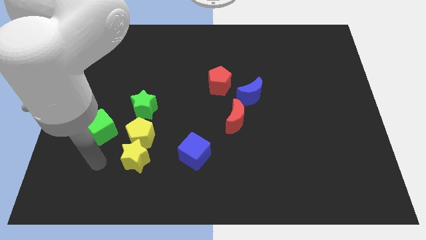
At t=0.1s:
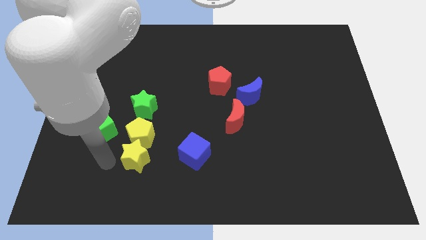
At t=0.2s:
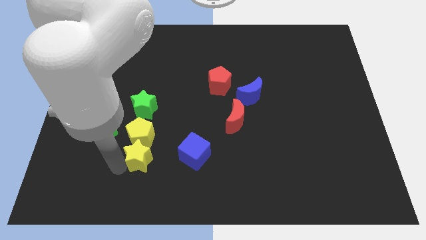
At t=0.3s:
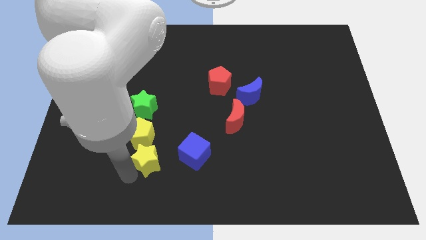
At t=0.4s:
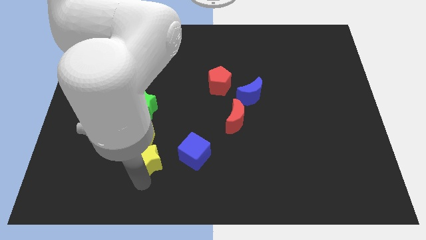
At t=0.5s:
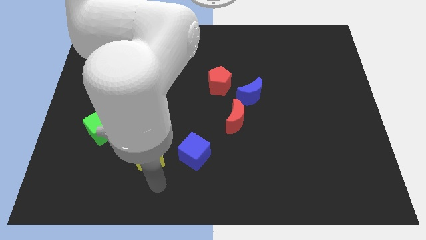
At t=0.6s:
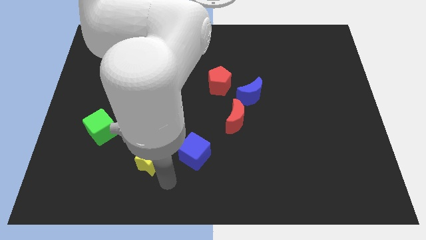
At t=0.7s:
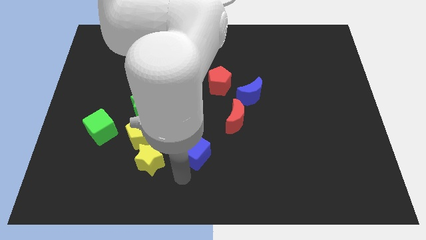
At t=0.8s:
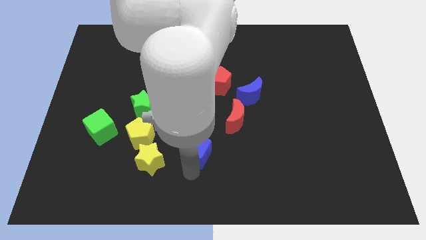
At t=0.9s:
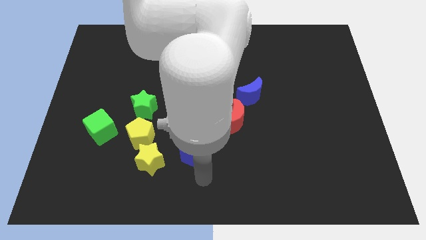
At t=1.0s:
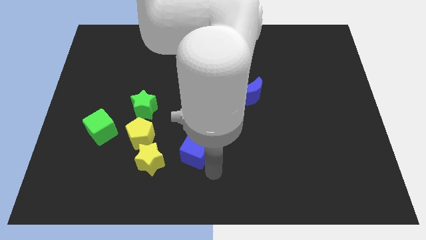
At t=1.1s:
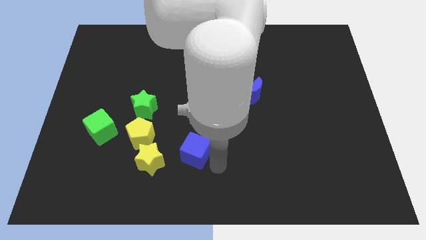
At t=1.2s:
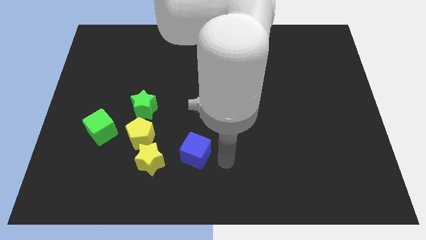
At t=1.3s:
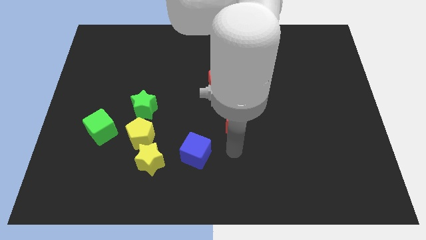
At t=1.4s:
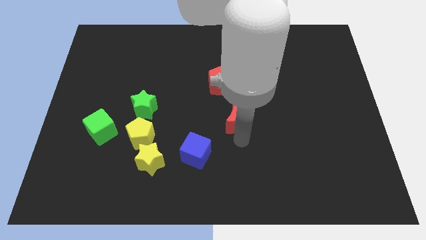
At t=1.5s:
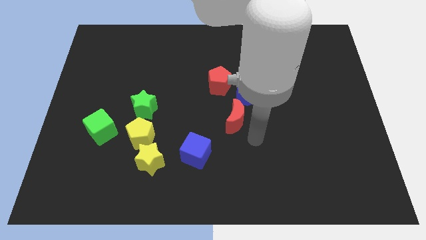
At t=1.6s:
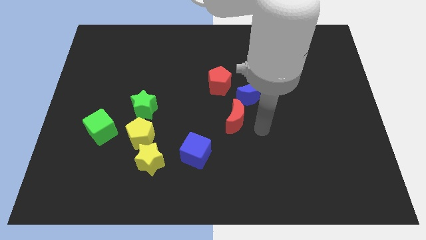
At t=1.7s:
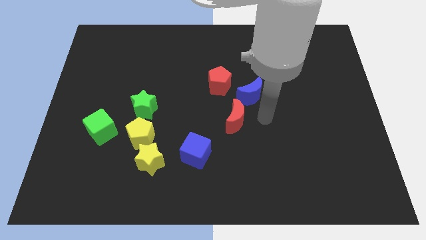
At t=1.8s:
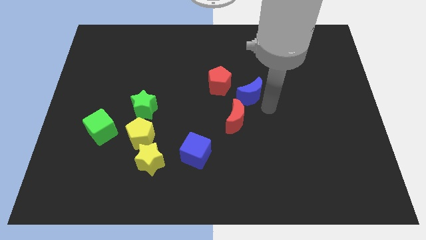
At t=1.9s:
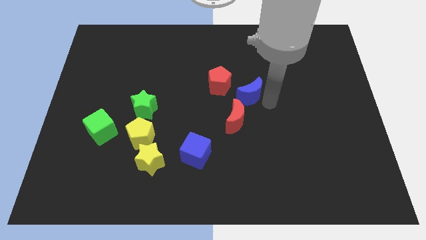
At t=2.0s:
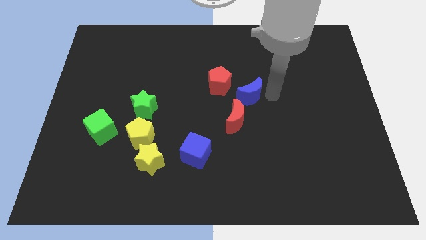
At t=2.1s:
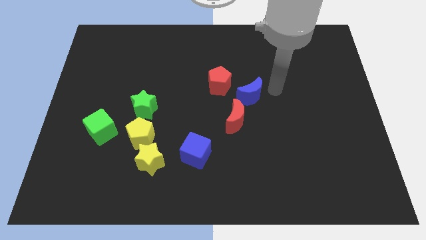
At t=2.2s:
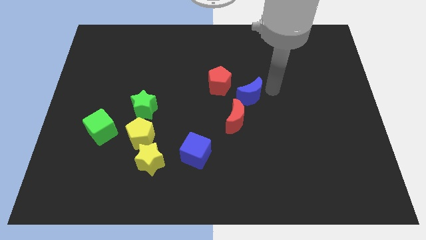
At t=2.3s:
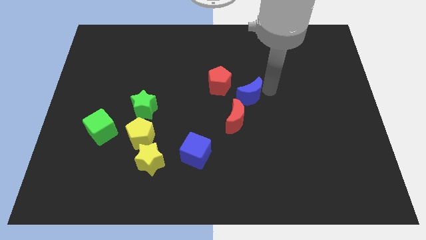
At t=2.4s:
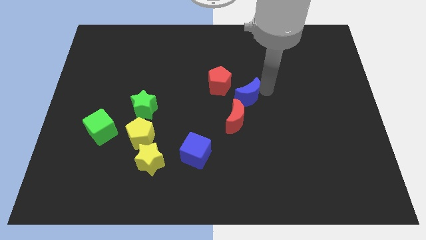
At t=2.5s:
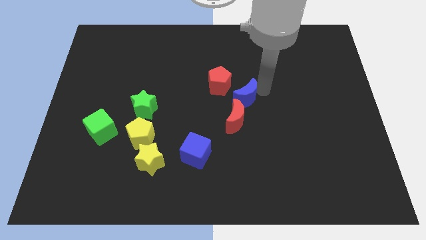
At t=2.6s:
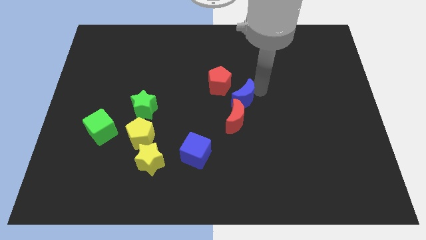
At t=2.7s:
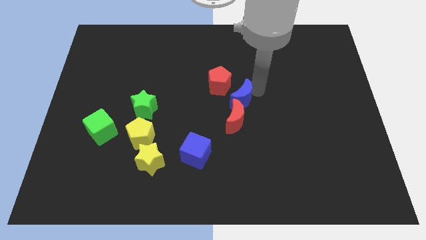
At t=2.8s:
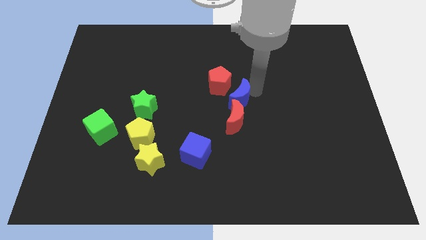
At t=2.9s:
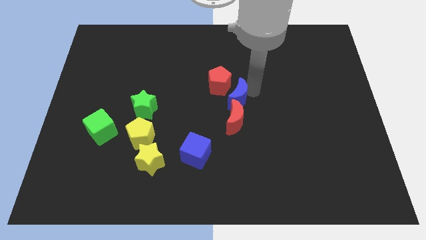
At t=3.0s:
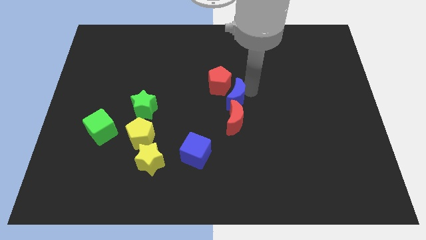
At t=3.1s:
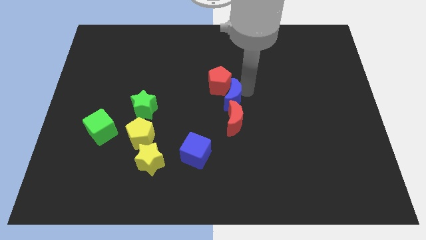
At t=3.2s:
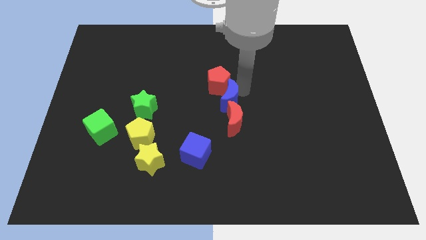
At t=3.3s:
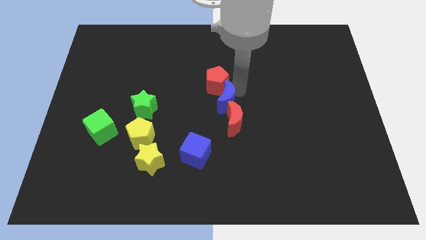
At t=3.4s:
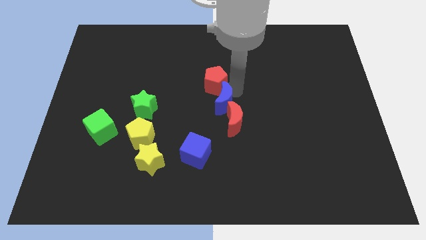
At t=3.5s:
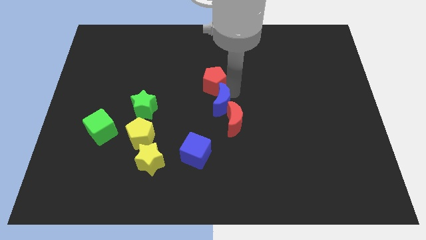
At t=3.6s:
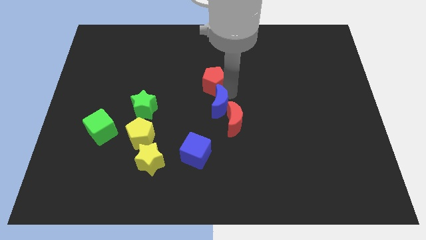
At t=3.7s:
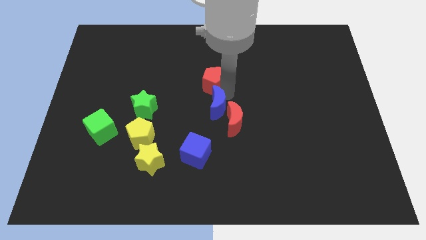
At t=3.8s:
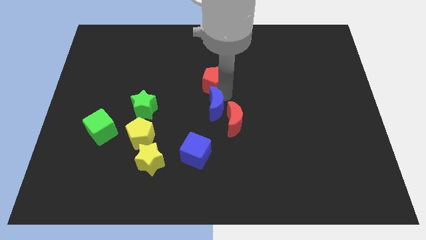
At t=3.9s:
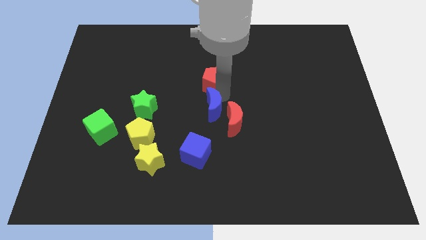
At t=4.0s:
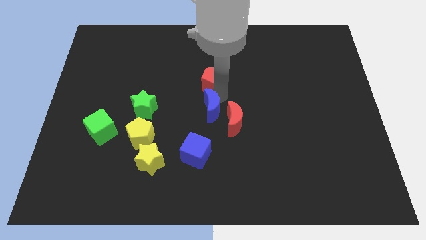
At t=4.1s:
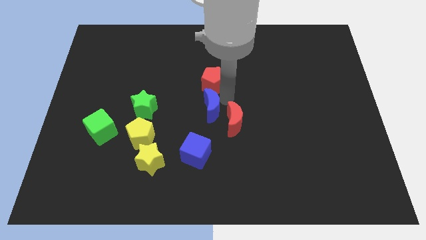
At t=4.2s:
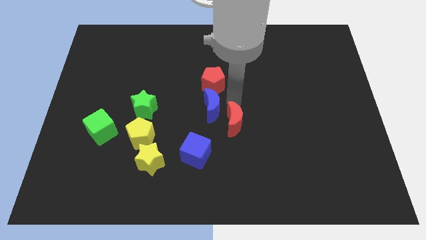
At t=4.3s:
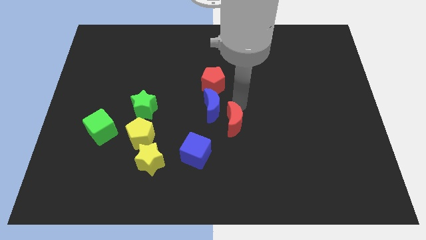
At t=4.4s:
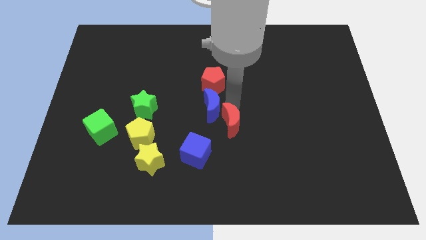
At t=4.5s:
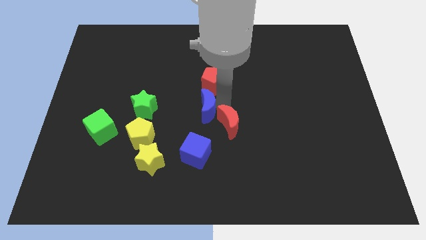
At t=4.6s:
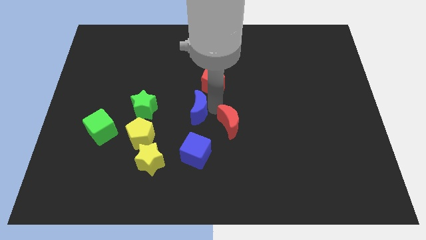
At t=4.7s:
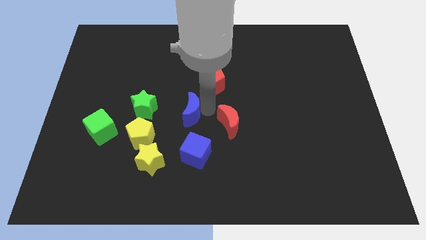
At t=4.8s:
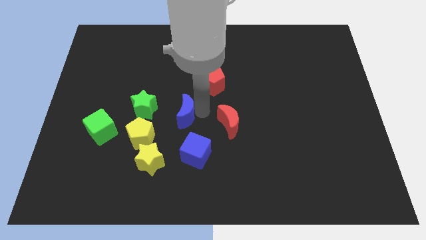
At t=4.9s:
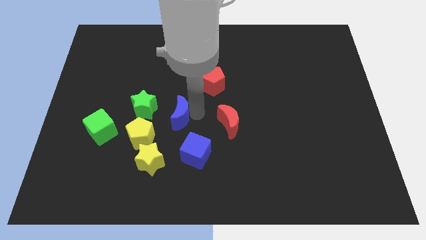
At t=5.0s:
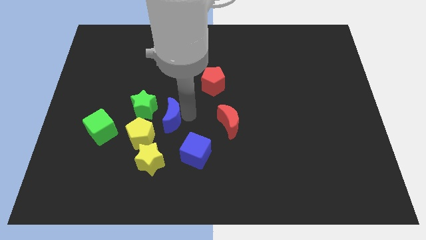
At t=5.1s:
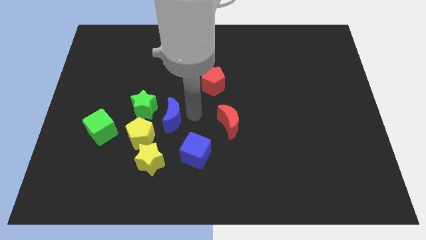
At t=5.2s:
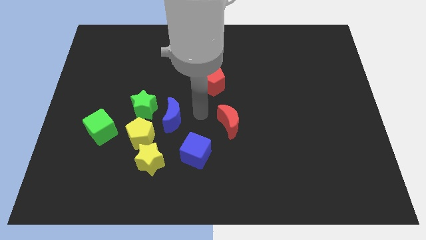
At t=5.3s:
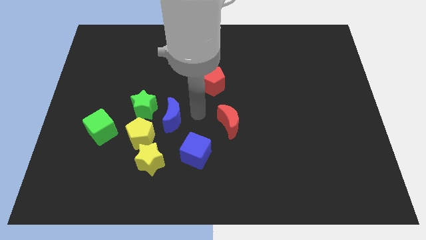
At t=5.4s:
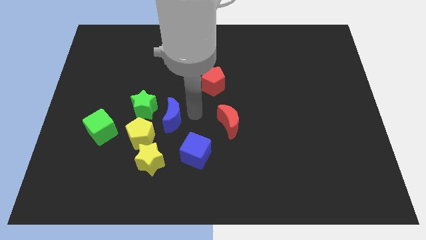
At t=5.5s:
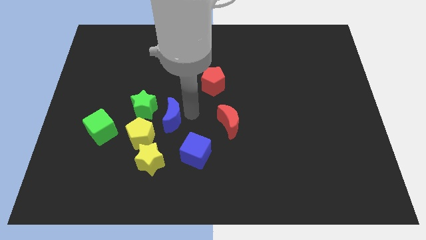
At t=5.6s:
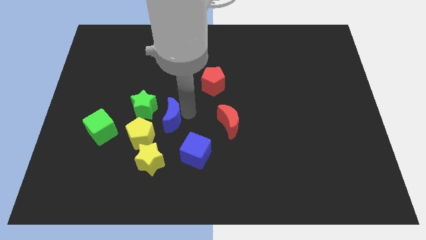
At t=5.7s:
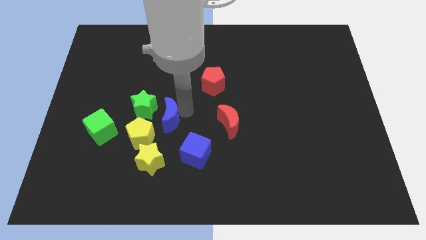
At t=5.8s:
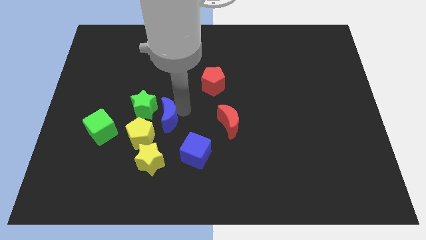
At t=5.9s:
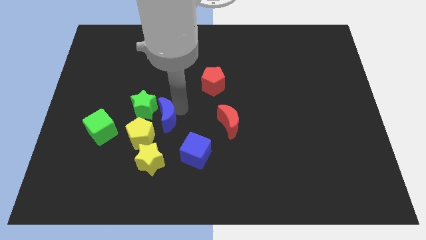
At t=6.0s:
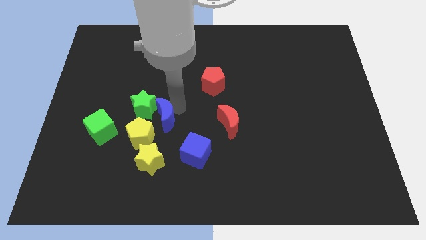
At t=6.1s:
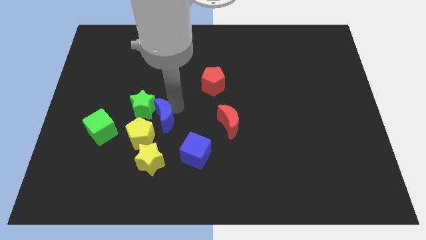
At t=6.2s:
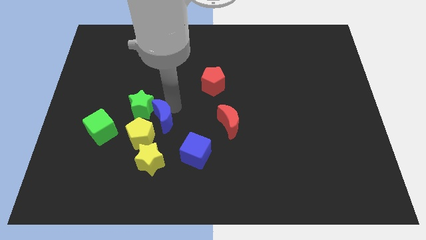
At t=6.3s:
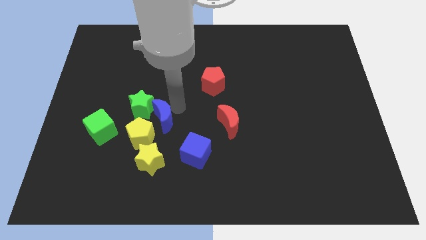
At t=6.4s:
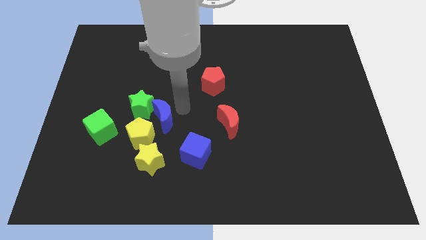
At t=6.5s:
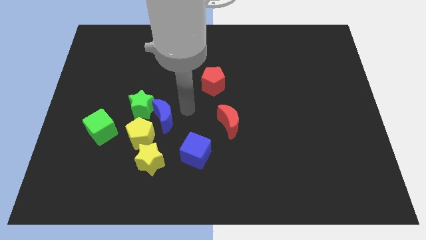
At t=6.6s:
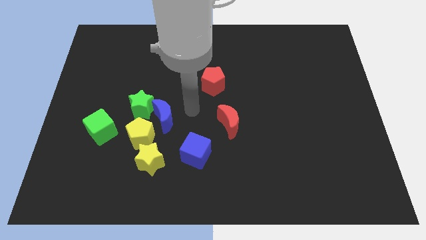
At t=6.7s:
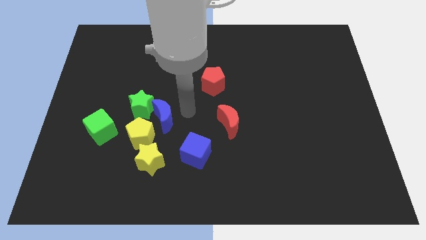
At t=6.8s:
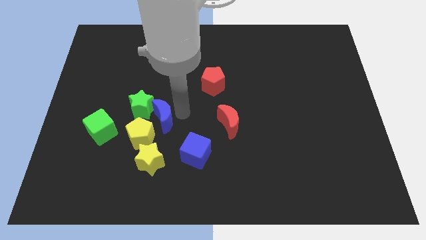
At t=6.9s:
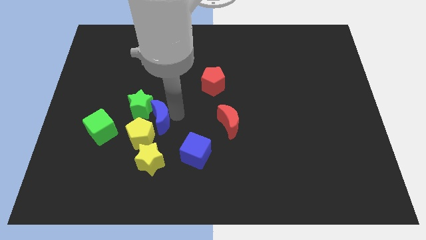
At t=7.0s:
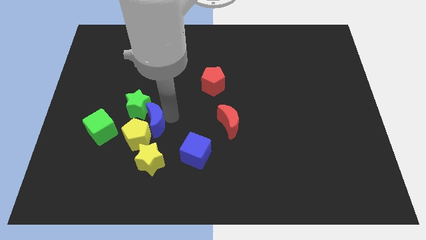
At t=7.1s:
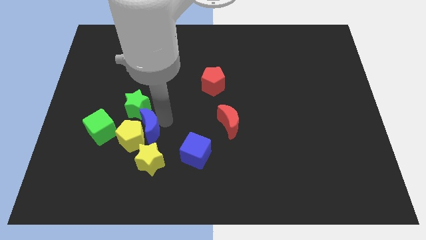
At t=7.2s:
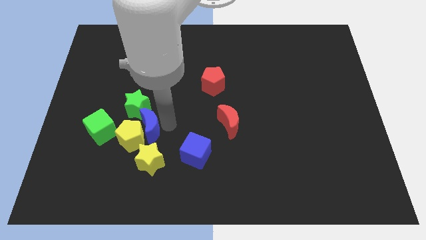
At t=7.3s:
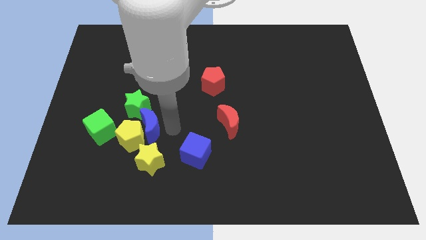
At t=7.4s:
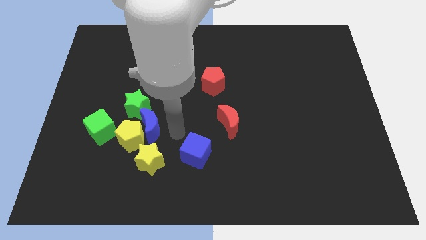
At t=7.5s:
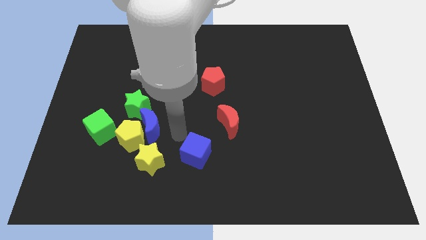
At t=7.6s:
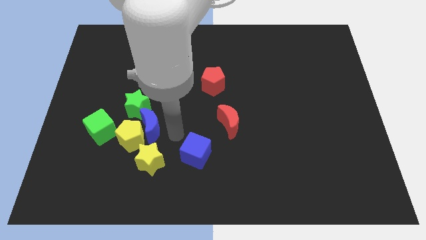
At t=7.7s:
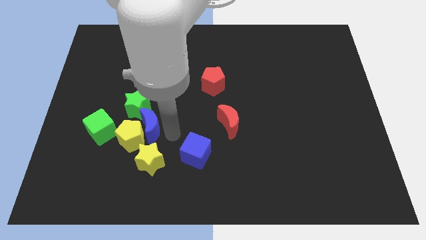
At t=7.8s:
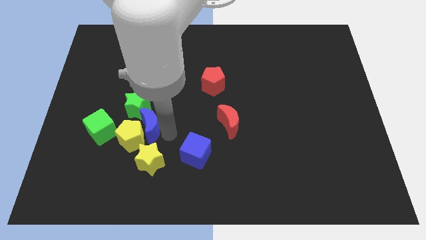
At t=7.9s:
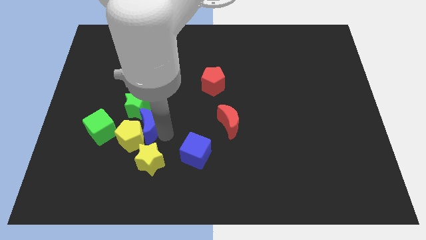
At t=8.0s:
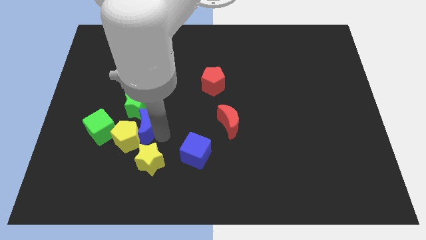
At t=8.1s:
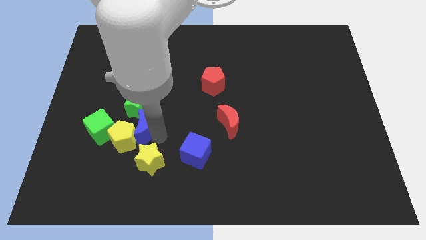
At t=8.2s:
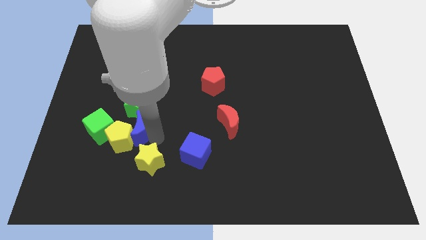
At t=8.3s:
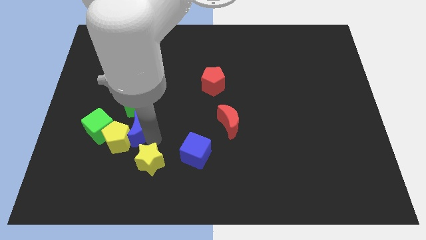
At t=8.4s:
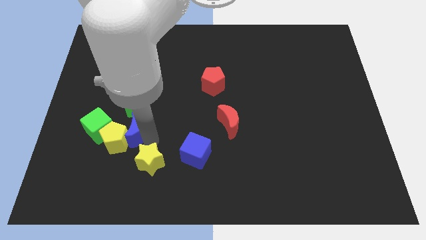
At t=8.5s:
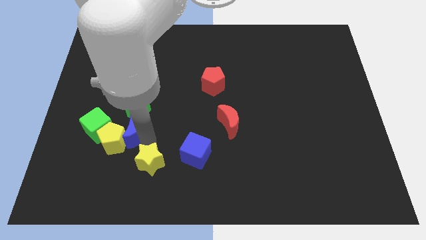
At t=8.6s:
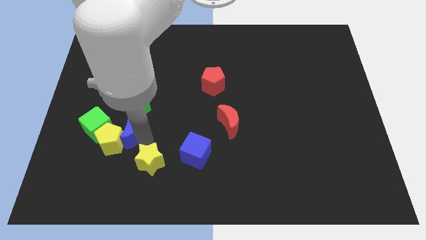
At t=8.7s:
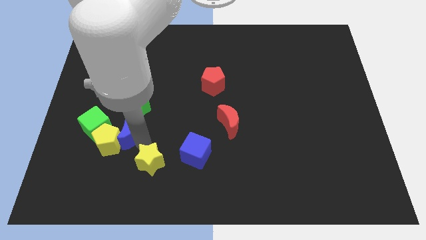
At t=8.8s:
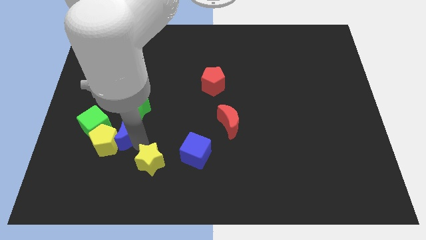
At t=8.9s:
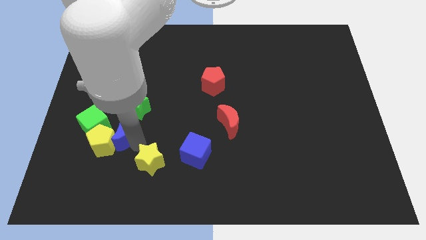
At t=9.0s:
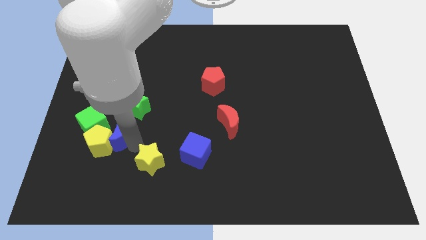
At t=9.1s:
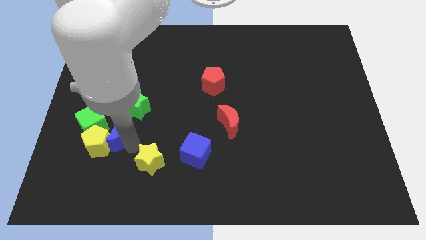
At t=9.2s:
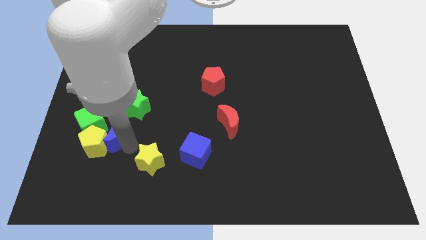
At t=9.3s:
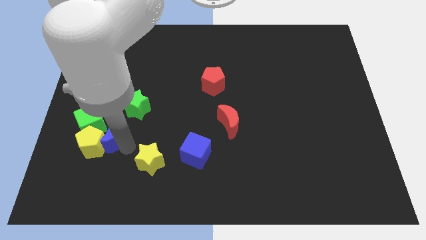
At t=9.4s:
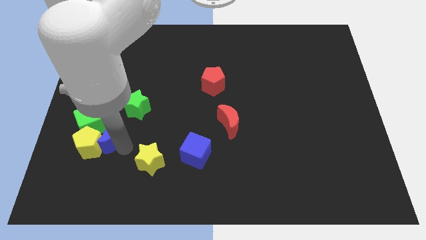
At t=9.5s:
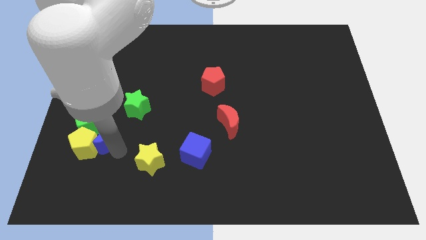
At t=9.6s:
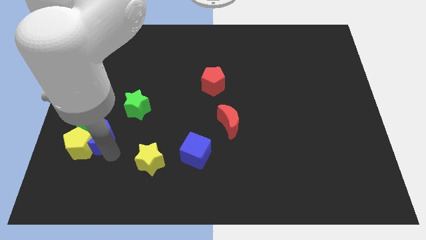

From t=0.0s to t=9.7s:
put the blue moon close to the green cube
